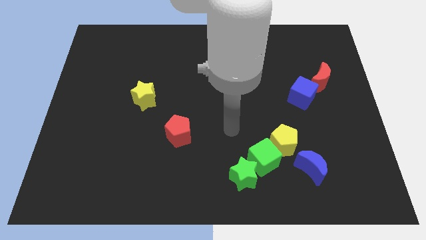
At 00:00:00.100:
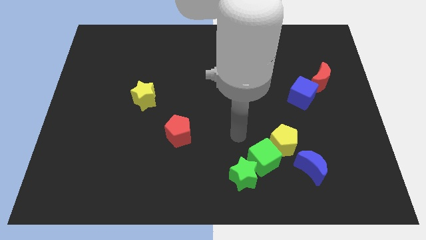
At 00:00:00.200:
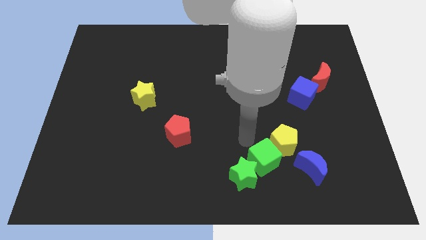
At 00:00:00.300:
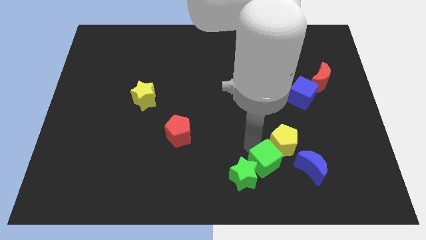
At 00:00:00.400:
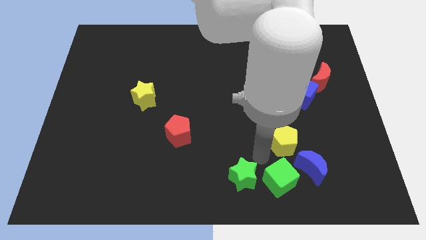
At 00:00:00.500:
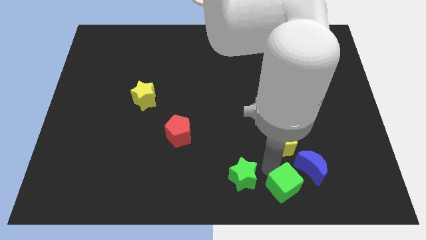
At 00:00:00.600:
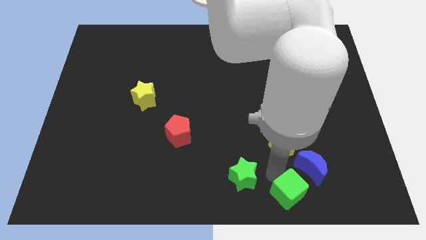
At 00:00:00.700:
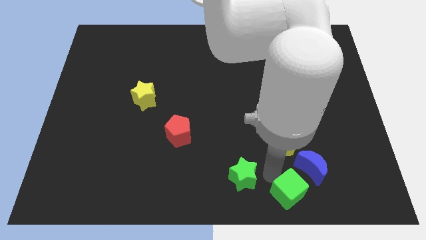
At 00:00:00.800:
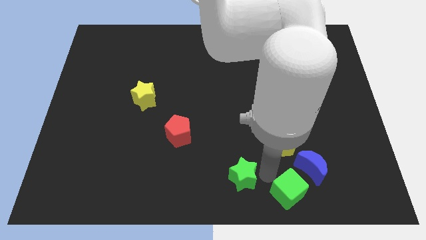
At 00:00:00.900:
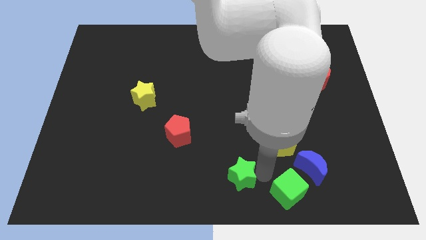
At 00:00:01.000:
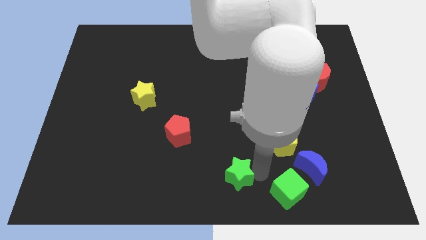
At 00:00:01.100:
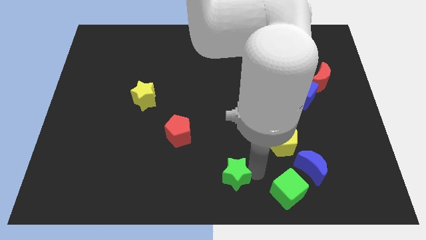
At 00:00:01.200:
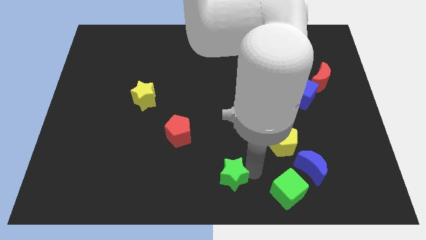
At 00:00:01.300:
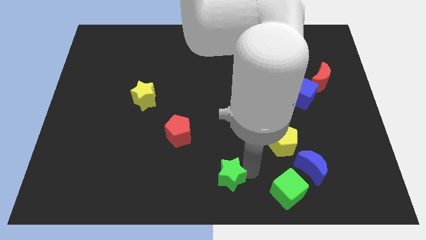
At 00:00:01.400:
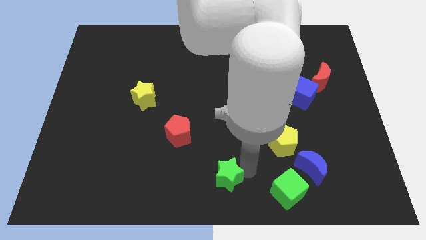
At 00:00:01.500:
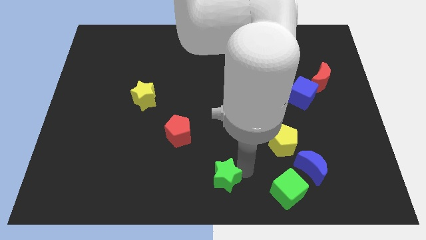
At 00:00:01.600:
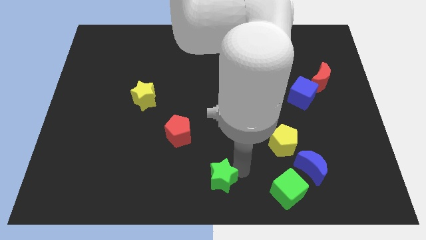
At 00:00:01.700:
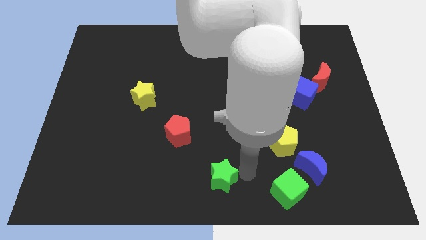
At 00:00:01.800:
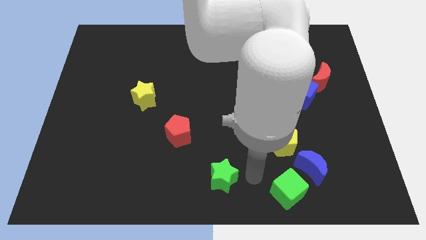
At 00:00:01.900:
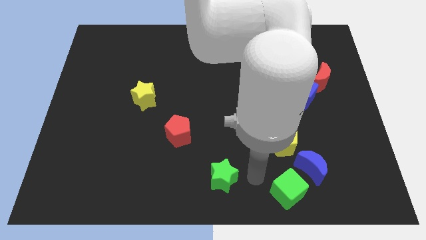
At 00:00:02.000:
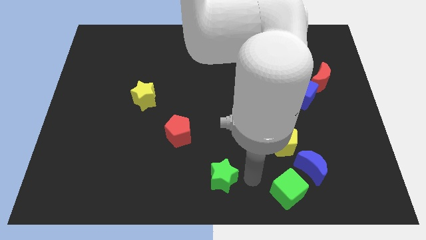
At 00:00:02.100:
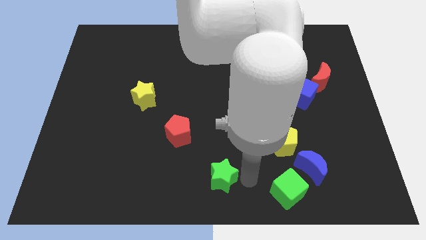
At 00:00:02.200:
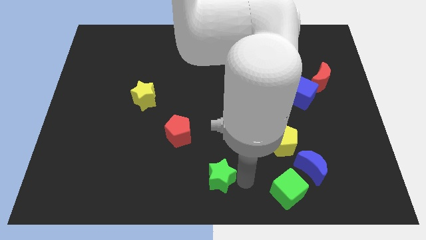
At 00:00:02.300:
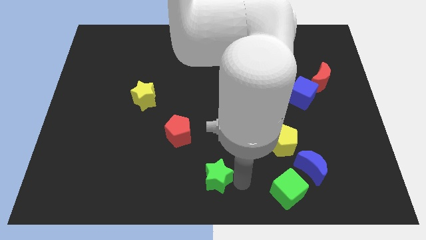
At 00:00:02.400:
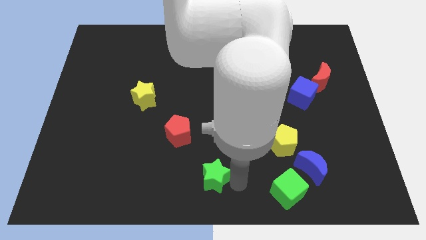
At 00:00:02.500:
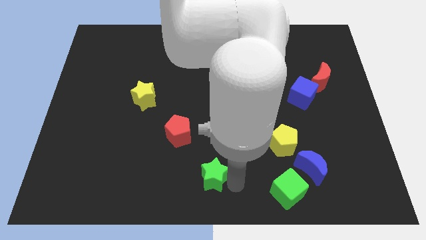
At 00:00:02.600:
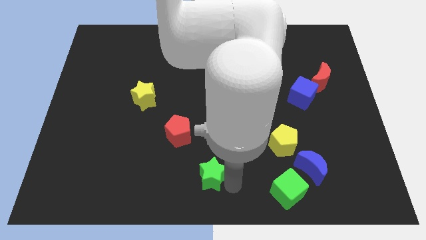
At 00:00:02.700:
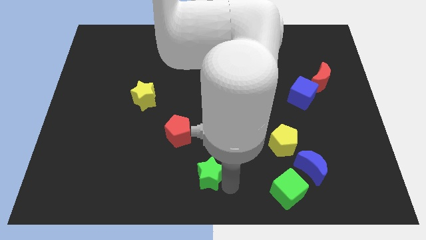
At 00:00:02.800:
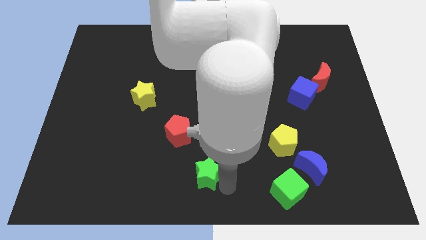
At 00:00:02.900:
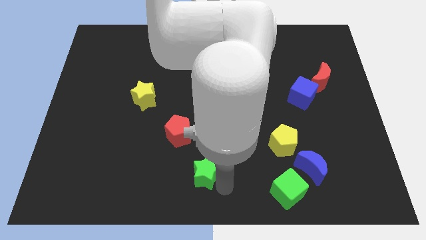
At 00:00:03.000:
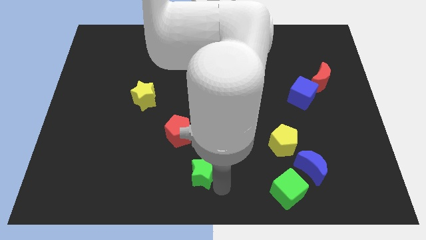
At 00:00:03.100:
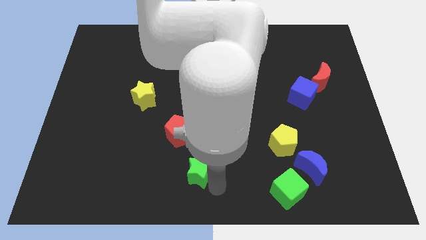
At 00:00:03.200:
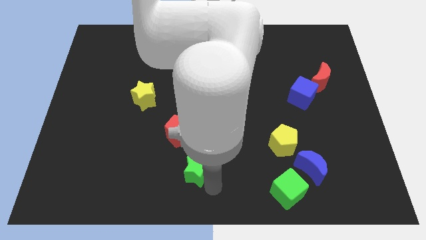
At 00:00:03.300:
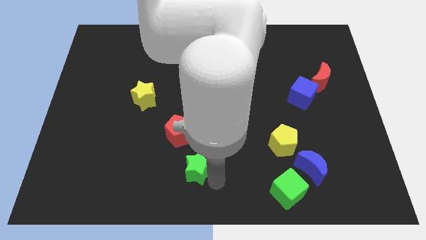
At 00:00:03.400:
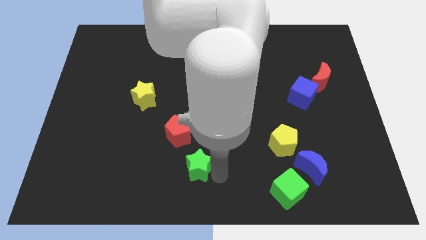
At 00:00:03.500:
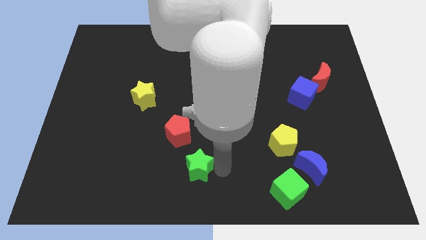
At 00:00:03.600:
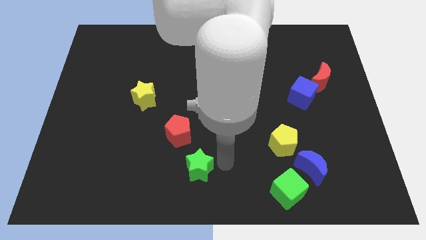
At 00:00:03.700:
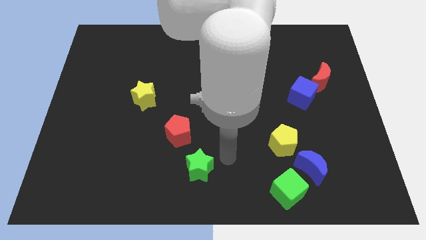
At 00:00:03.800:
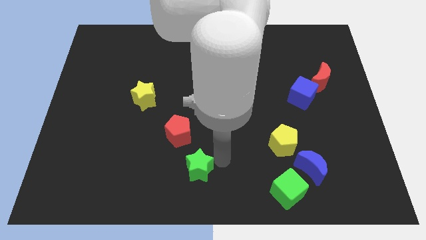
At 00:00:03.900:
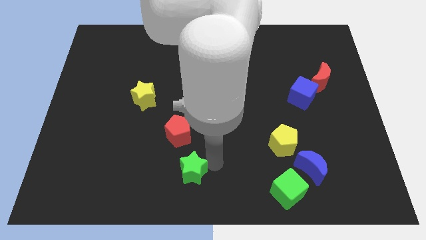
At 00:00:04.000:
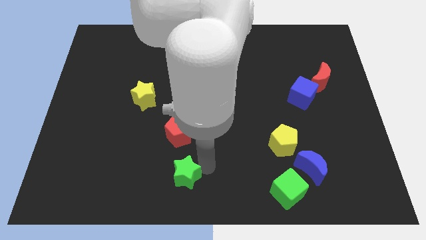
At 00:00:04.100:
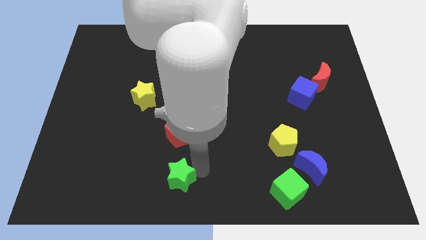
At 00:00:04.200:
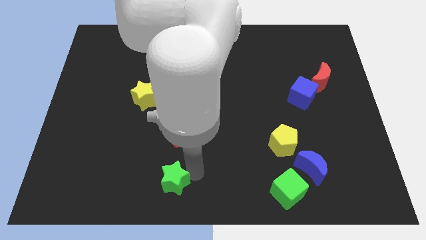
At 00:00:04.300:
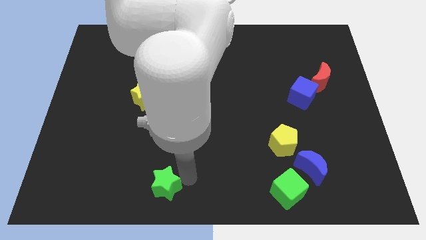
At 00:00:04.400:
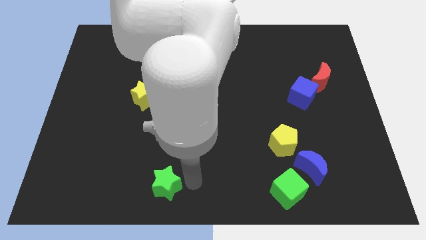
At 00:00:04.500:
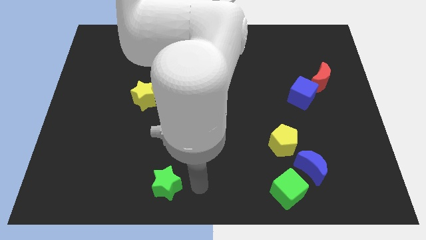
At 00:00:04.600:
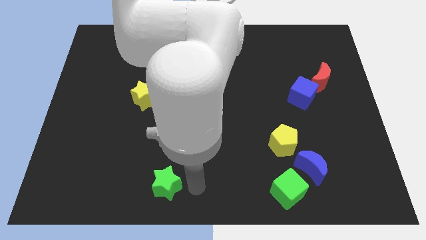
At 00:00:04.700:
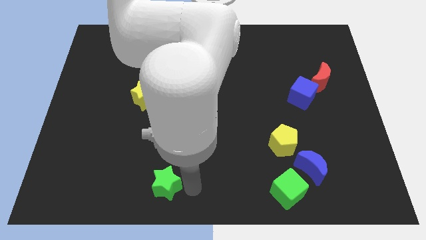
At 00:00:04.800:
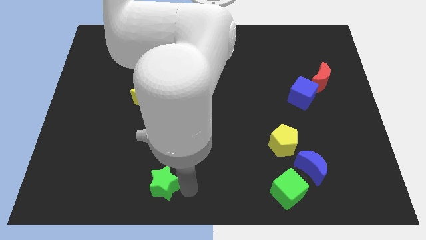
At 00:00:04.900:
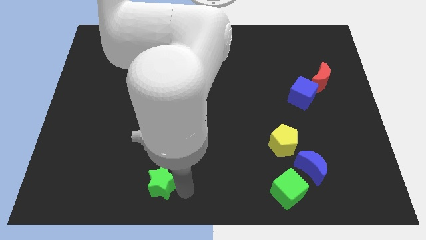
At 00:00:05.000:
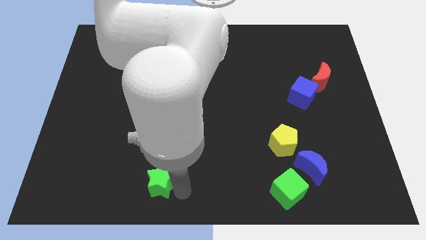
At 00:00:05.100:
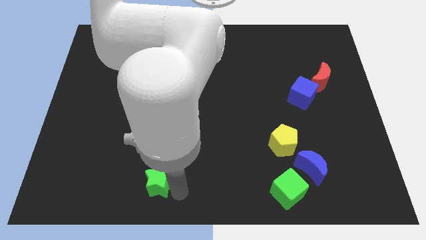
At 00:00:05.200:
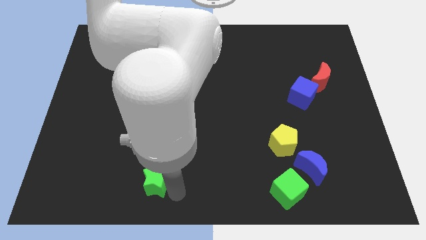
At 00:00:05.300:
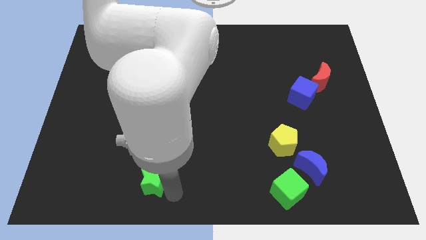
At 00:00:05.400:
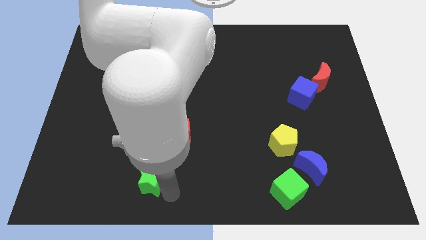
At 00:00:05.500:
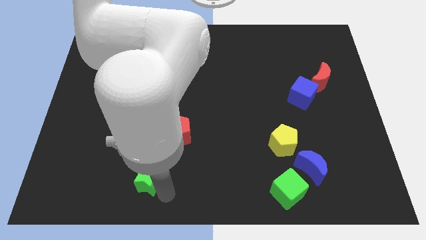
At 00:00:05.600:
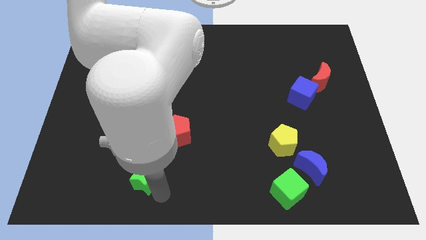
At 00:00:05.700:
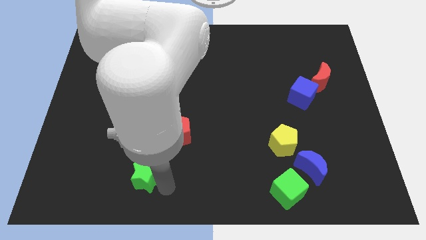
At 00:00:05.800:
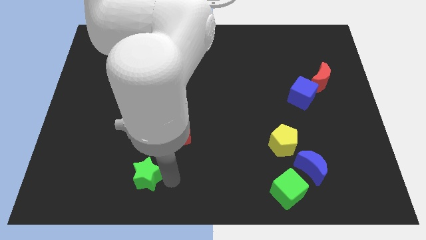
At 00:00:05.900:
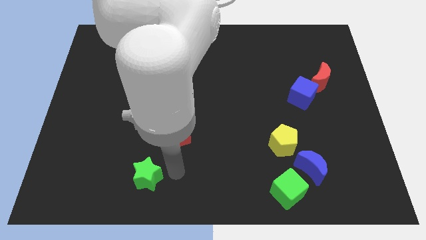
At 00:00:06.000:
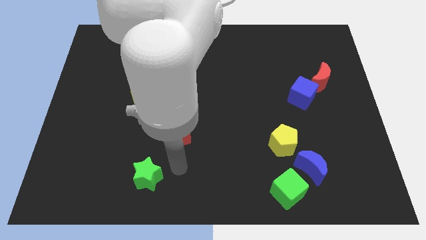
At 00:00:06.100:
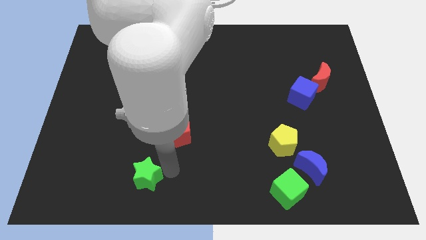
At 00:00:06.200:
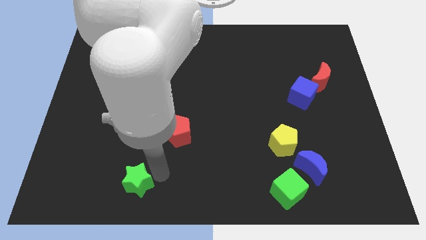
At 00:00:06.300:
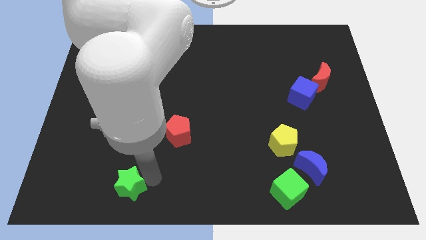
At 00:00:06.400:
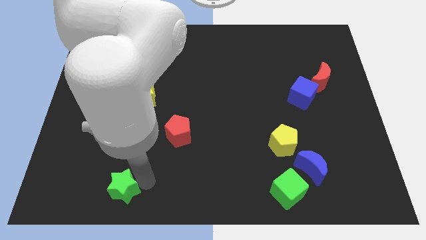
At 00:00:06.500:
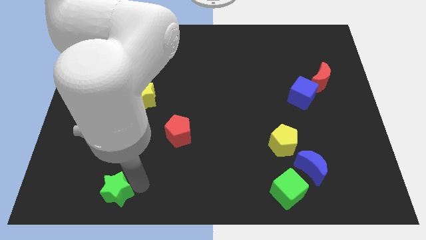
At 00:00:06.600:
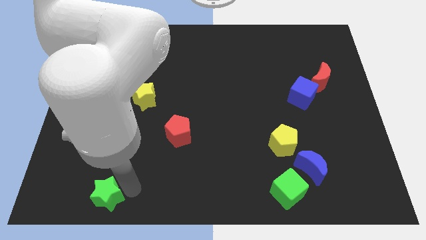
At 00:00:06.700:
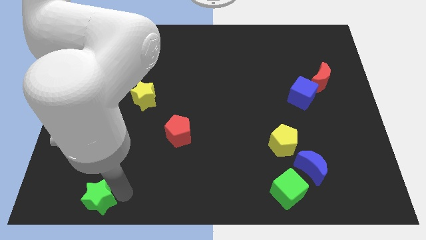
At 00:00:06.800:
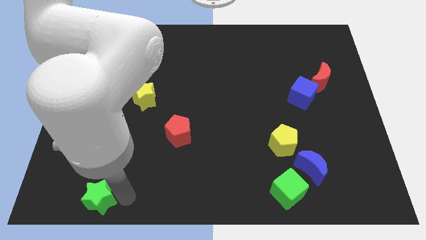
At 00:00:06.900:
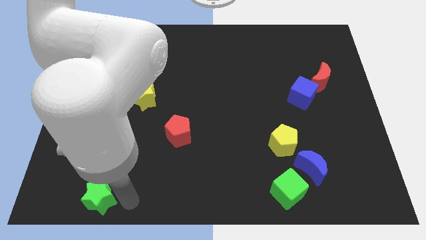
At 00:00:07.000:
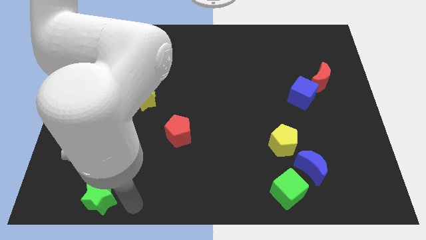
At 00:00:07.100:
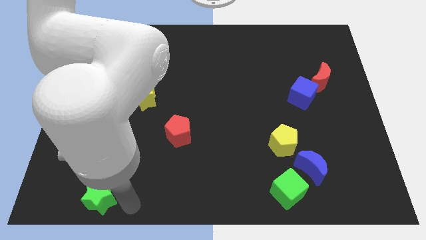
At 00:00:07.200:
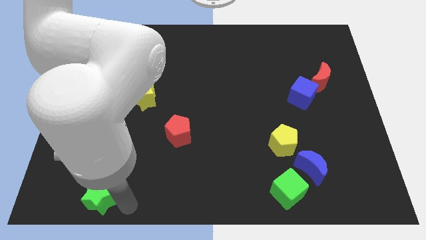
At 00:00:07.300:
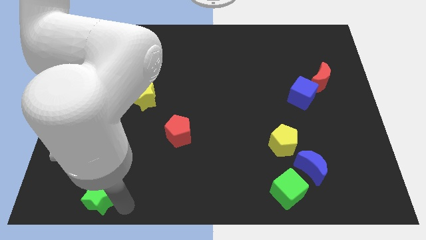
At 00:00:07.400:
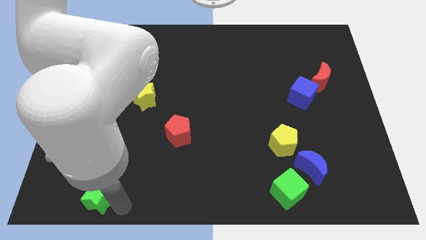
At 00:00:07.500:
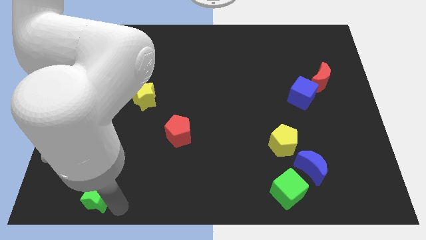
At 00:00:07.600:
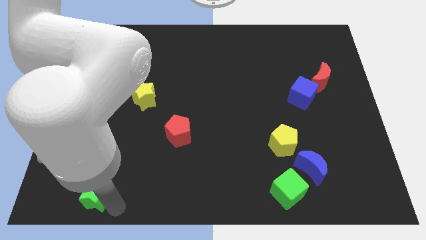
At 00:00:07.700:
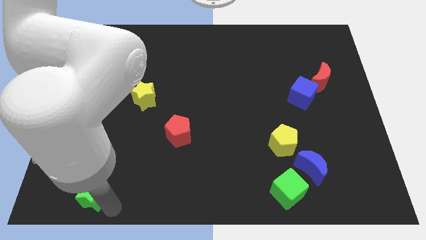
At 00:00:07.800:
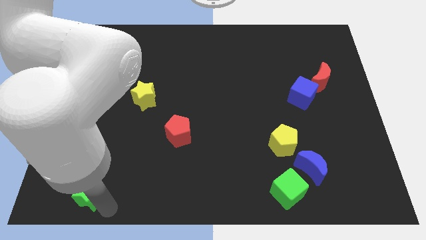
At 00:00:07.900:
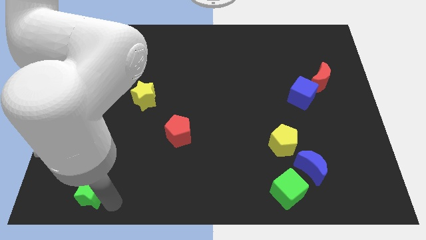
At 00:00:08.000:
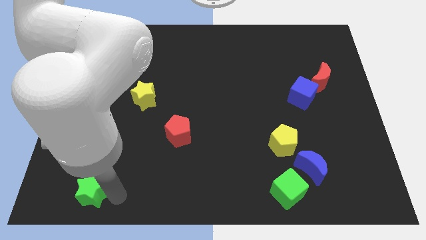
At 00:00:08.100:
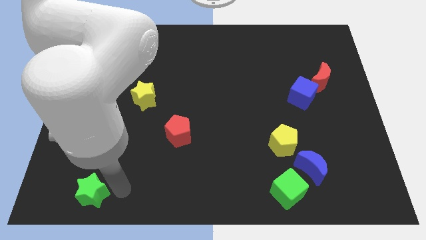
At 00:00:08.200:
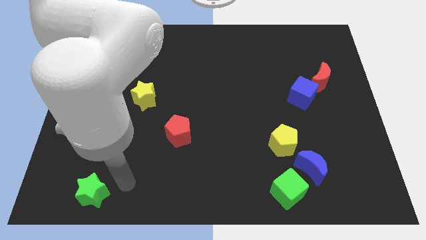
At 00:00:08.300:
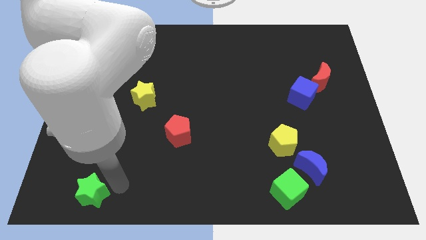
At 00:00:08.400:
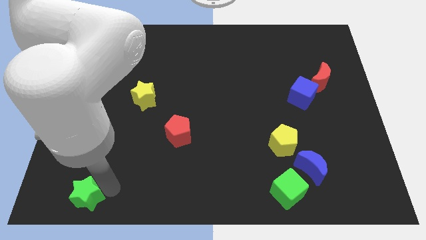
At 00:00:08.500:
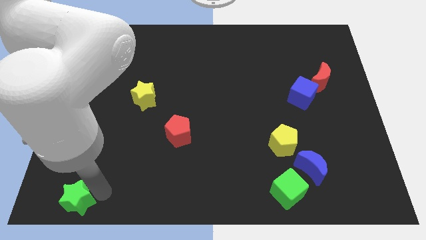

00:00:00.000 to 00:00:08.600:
put the green star to the bottom left
